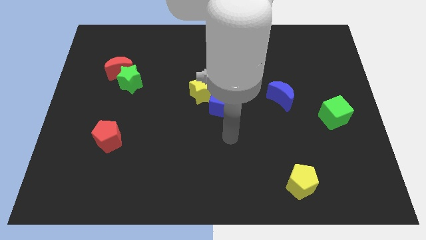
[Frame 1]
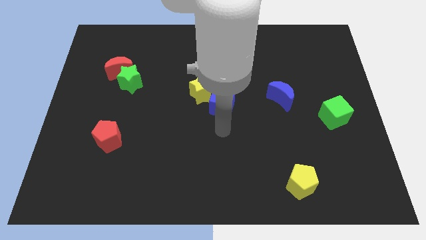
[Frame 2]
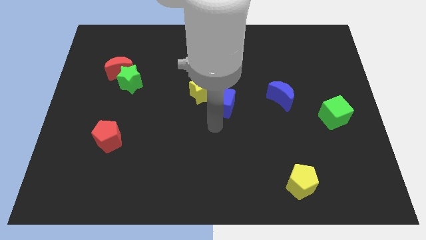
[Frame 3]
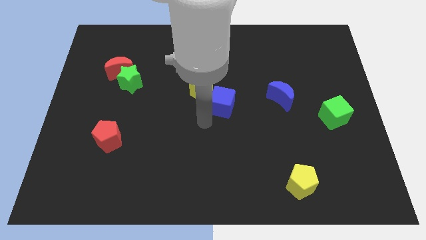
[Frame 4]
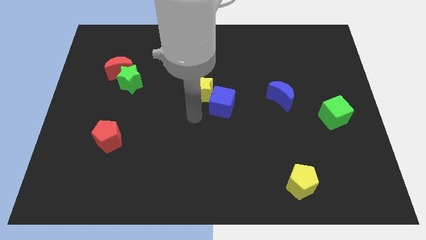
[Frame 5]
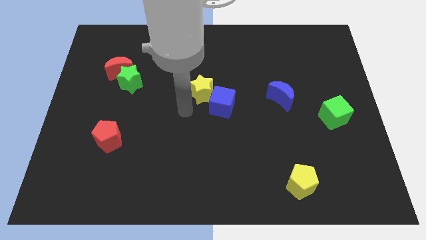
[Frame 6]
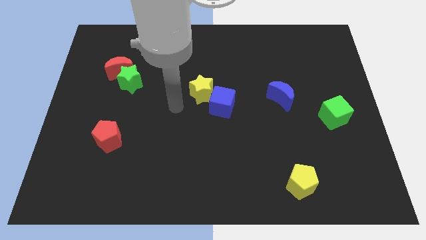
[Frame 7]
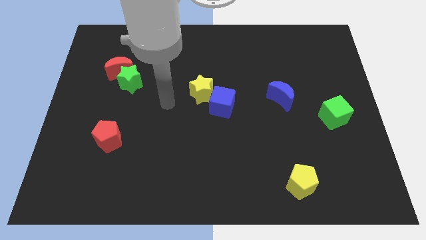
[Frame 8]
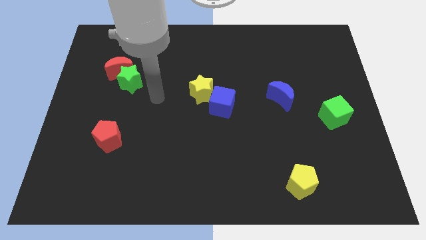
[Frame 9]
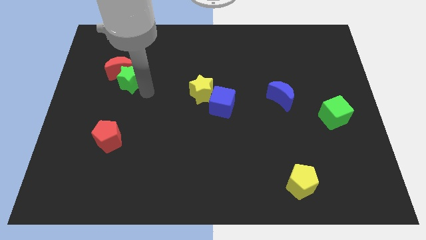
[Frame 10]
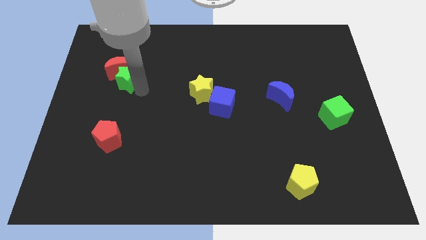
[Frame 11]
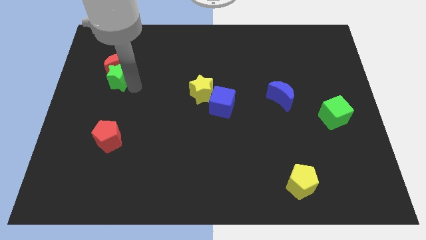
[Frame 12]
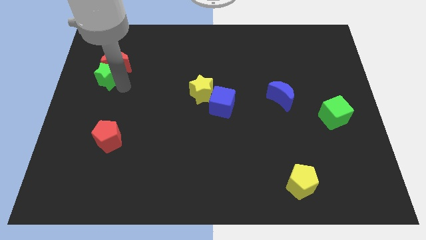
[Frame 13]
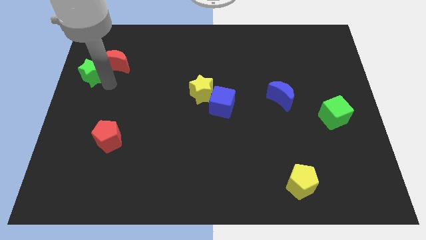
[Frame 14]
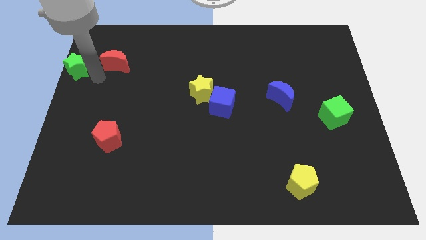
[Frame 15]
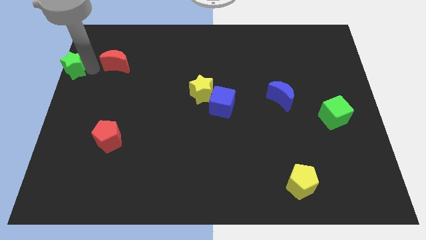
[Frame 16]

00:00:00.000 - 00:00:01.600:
pull the red moon apart from the green star

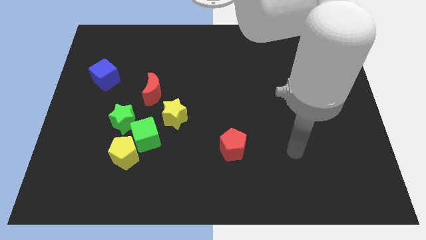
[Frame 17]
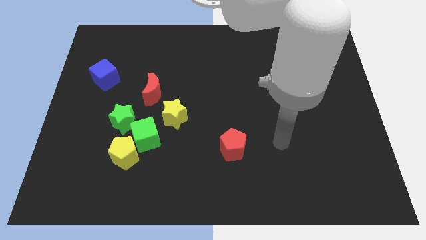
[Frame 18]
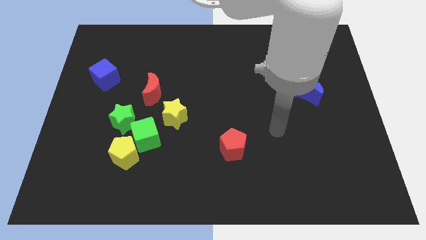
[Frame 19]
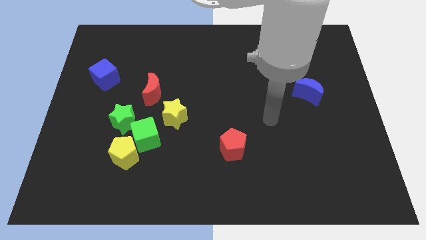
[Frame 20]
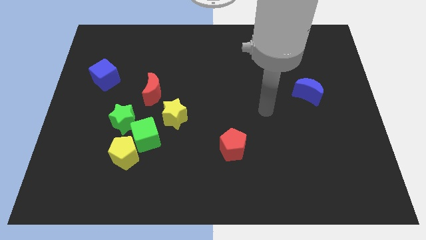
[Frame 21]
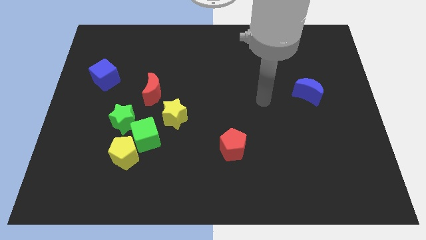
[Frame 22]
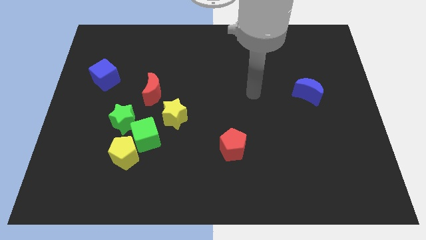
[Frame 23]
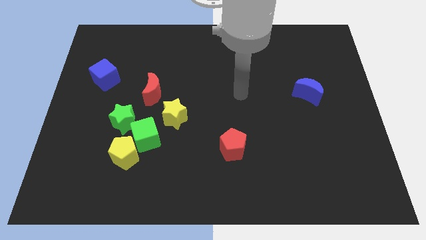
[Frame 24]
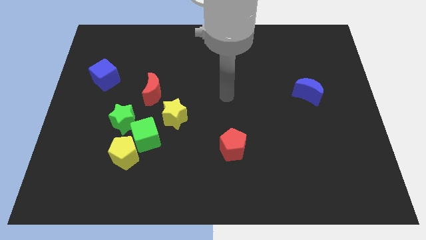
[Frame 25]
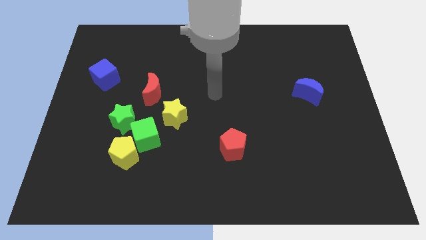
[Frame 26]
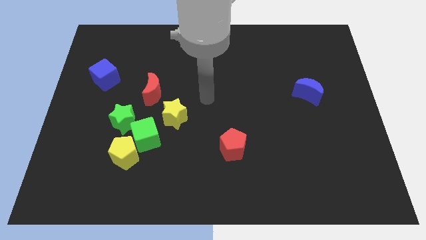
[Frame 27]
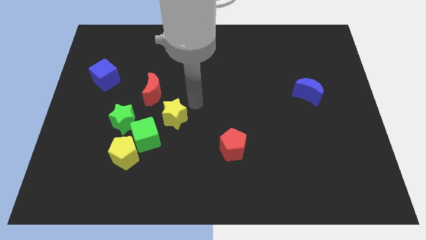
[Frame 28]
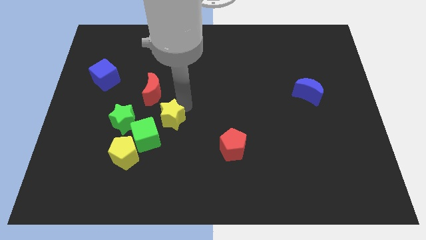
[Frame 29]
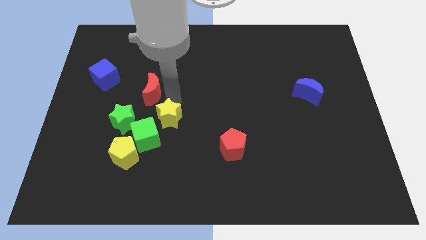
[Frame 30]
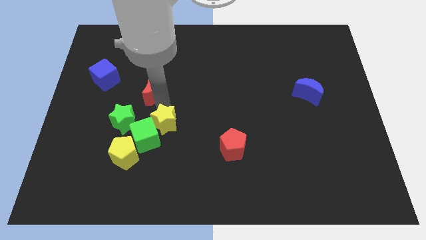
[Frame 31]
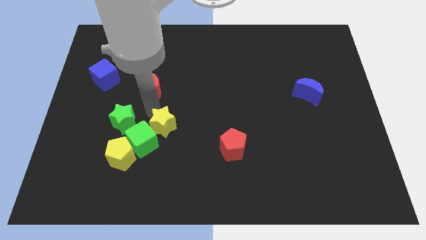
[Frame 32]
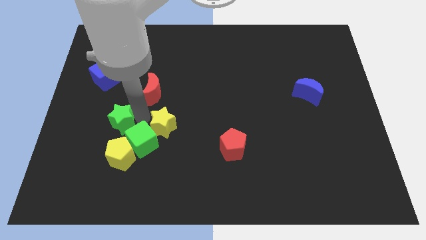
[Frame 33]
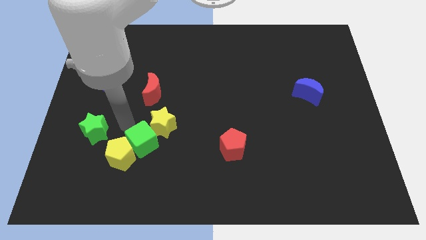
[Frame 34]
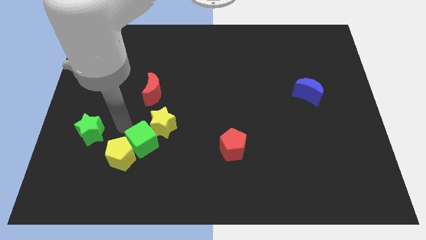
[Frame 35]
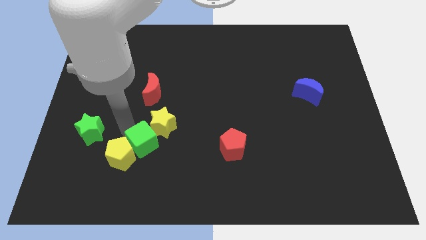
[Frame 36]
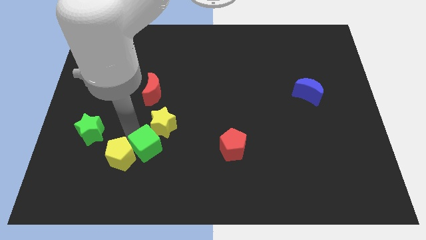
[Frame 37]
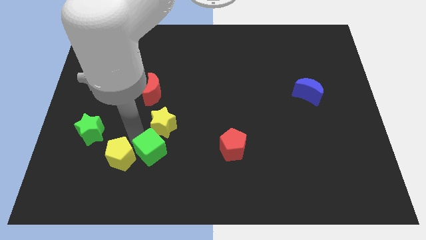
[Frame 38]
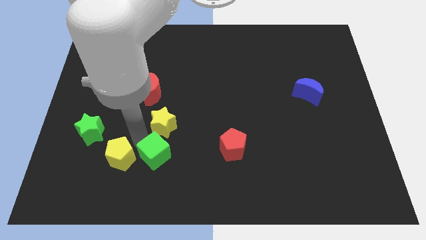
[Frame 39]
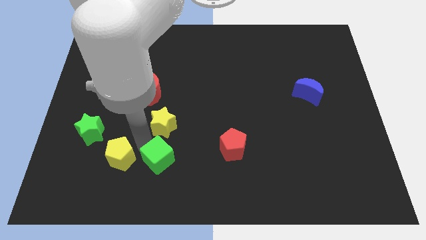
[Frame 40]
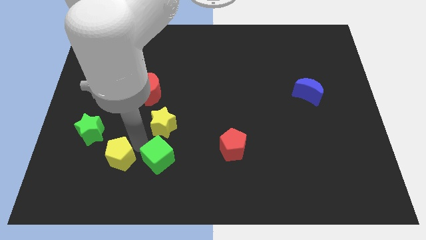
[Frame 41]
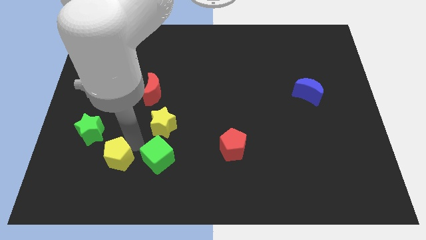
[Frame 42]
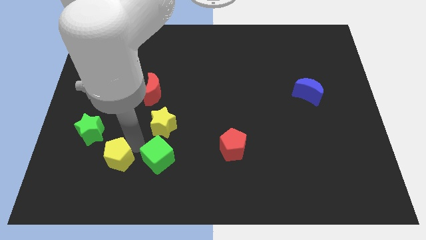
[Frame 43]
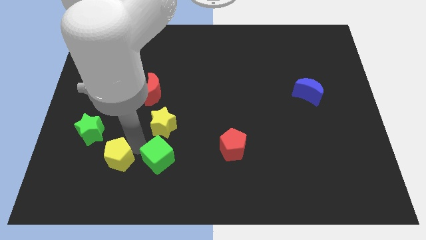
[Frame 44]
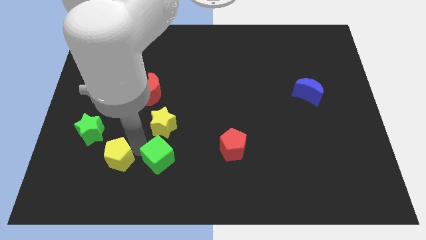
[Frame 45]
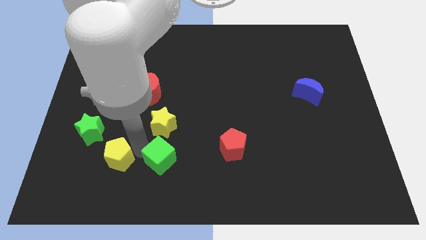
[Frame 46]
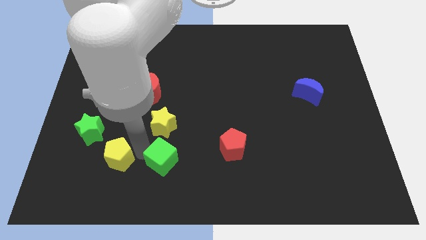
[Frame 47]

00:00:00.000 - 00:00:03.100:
pull the green cube apart from the clump

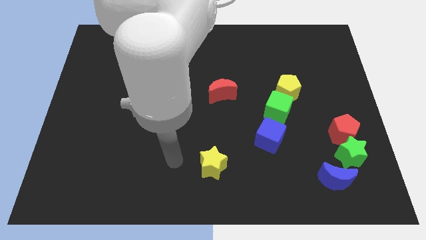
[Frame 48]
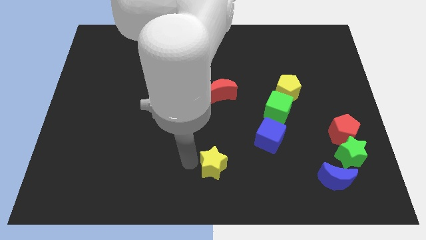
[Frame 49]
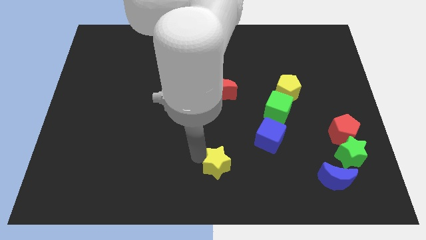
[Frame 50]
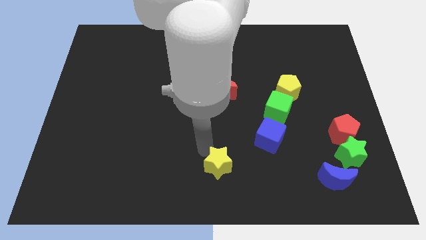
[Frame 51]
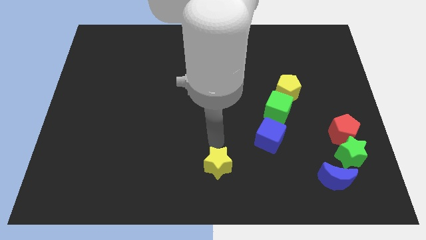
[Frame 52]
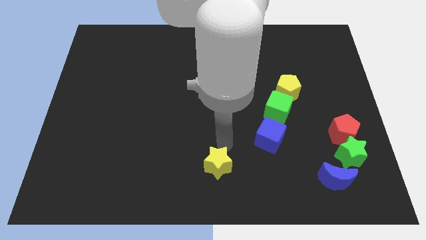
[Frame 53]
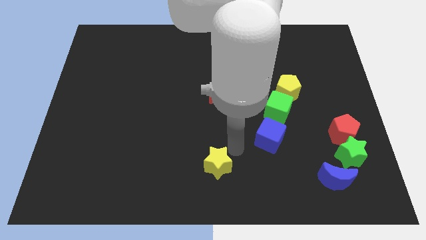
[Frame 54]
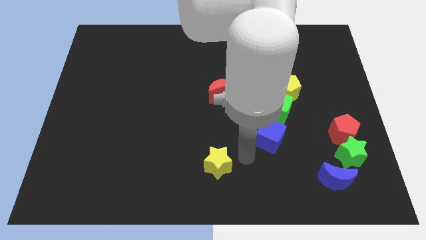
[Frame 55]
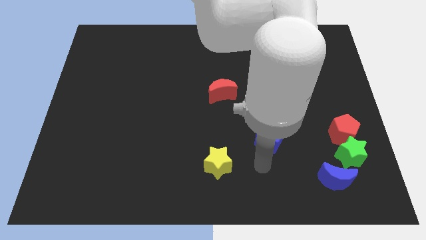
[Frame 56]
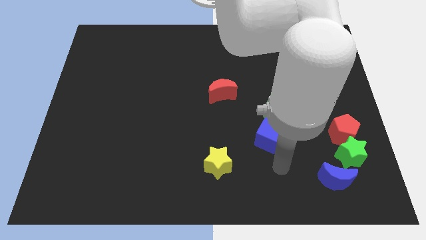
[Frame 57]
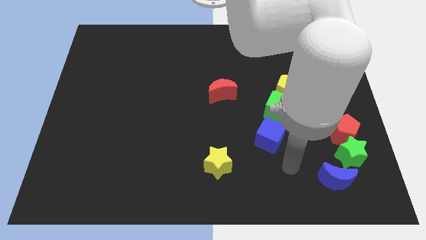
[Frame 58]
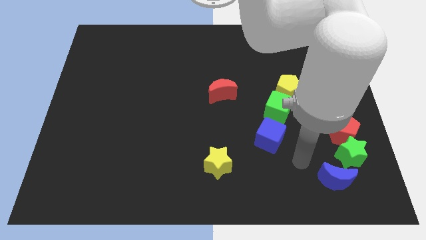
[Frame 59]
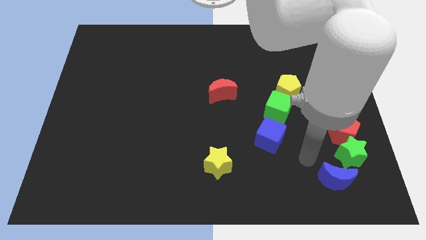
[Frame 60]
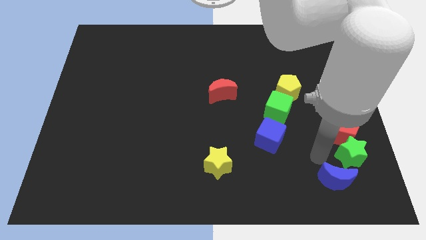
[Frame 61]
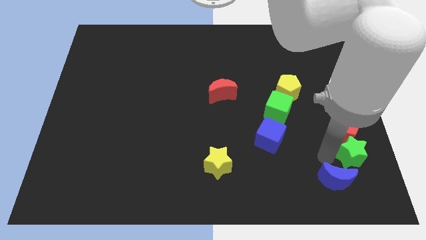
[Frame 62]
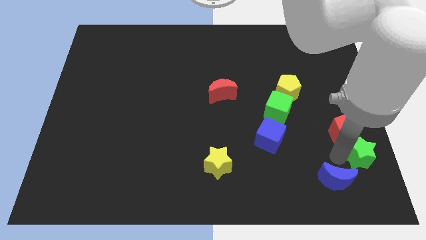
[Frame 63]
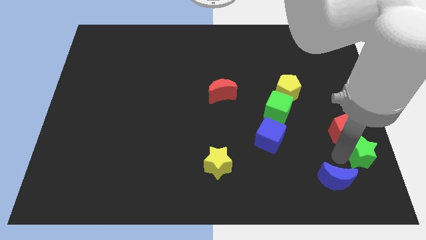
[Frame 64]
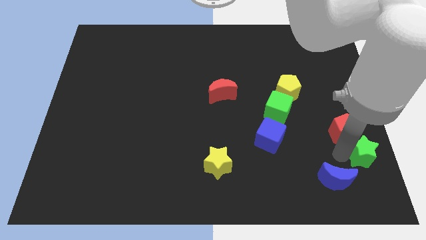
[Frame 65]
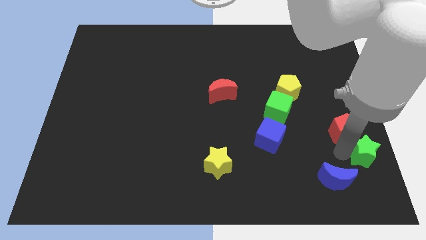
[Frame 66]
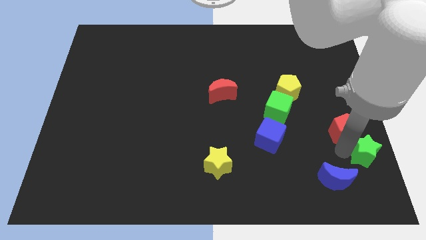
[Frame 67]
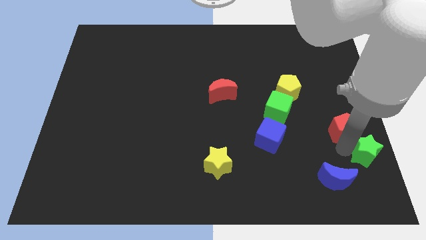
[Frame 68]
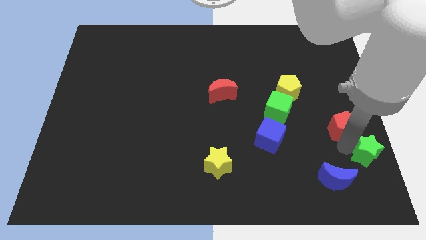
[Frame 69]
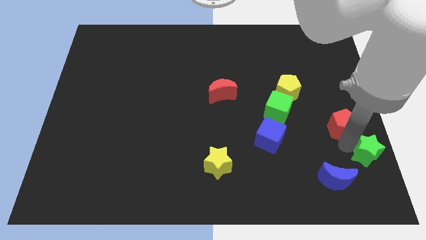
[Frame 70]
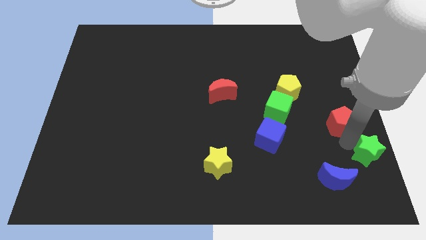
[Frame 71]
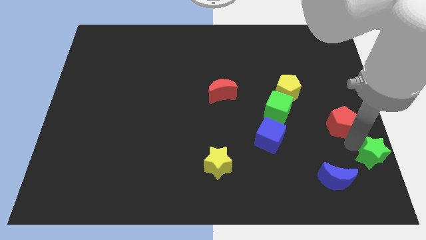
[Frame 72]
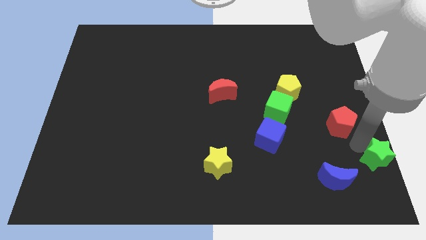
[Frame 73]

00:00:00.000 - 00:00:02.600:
move the red pentagon away from the green star

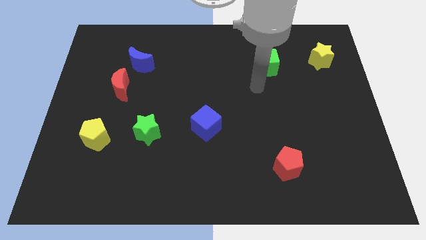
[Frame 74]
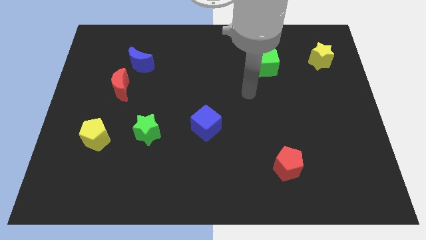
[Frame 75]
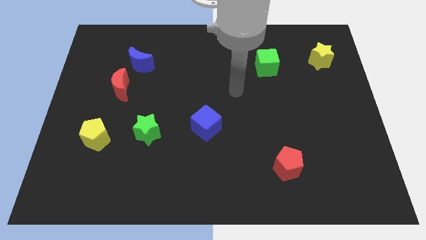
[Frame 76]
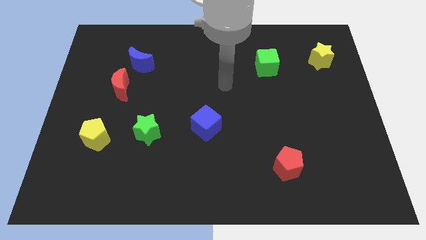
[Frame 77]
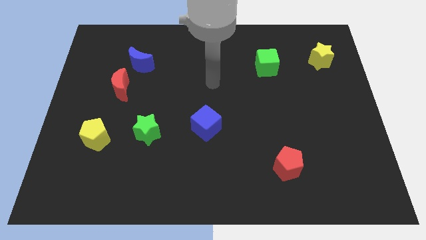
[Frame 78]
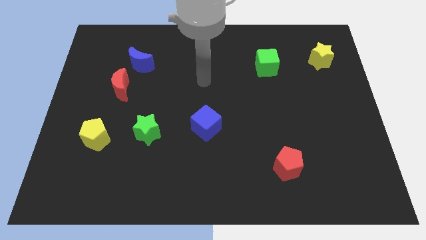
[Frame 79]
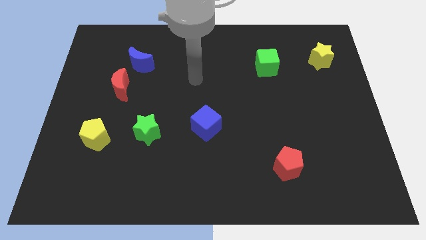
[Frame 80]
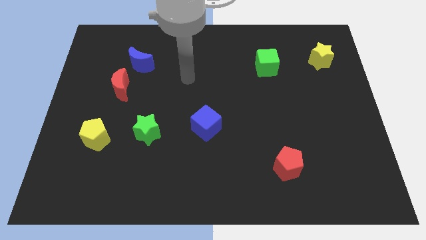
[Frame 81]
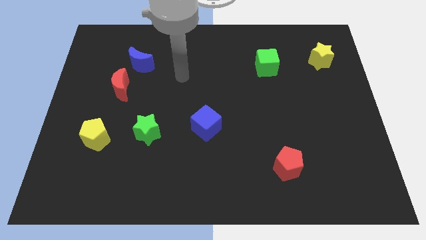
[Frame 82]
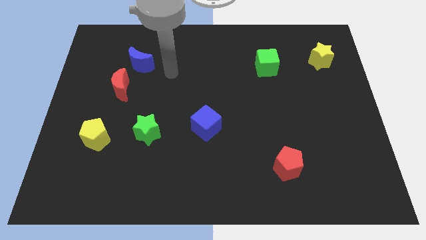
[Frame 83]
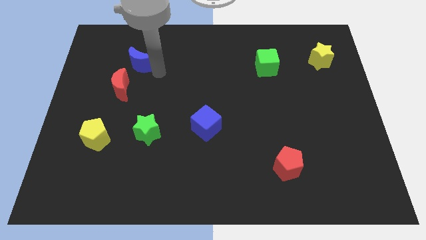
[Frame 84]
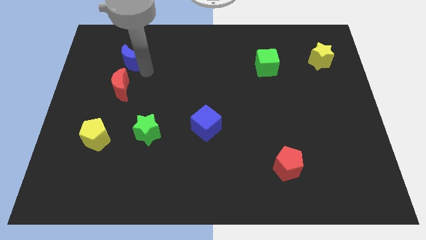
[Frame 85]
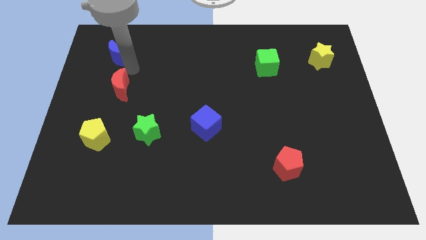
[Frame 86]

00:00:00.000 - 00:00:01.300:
pull the red moon apart from the blue moon

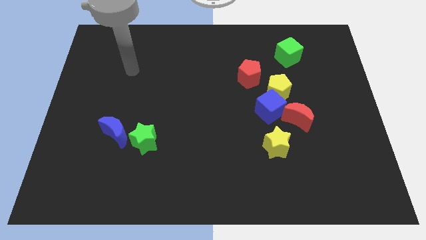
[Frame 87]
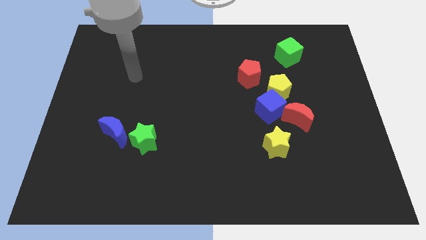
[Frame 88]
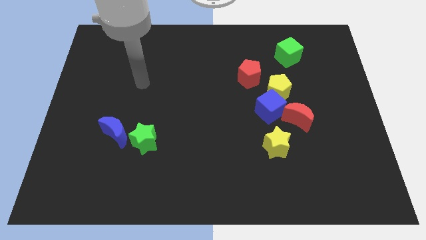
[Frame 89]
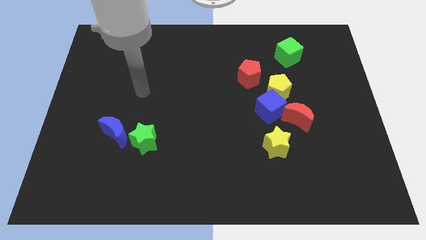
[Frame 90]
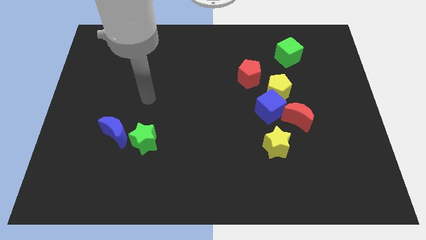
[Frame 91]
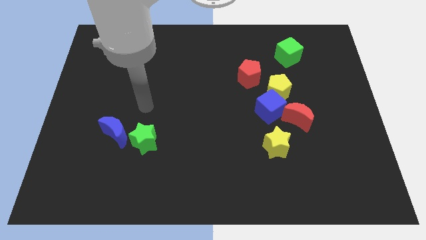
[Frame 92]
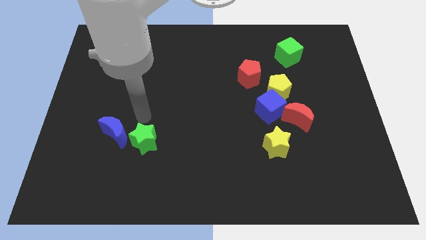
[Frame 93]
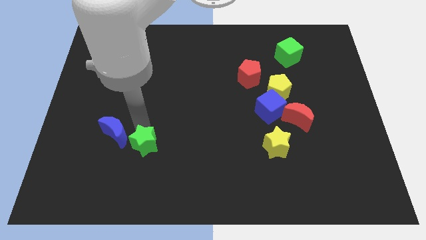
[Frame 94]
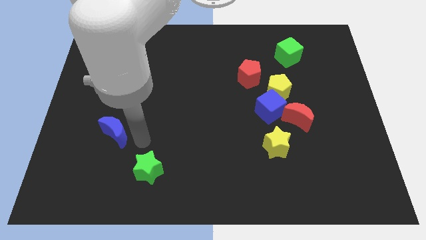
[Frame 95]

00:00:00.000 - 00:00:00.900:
pull the blue moon apart from the green star
